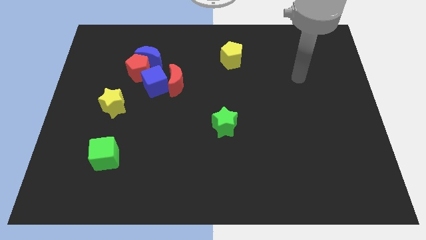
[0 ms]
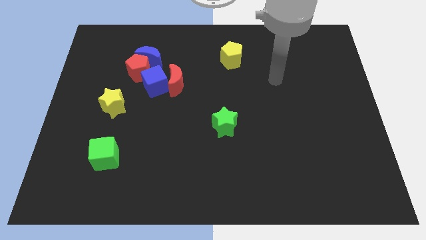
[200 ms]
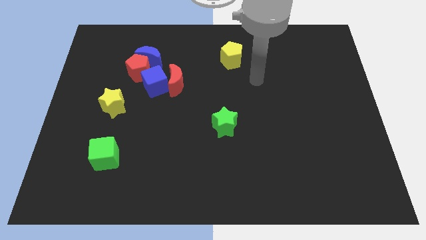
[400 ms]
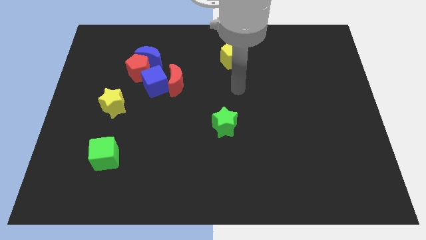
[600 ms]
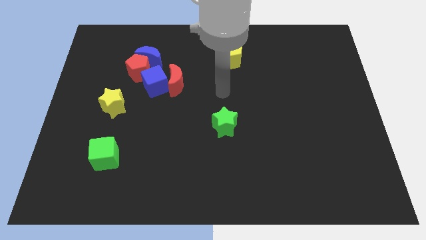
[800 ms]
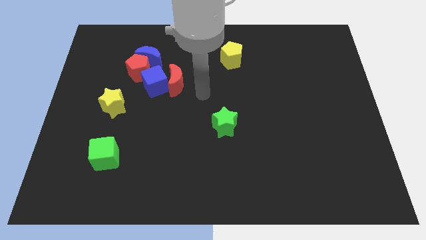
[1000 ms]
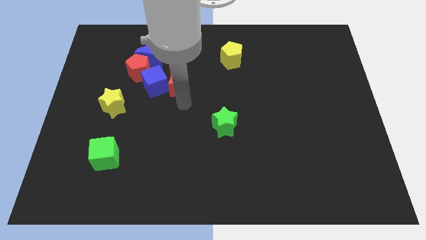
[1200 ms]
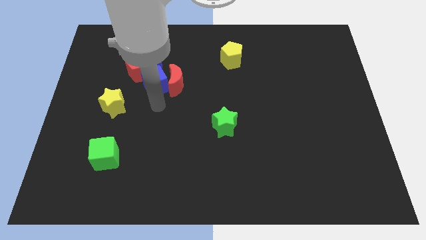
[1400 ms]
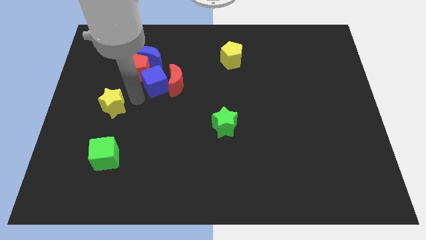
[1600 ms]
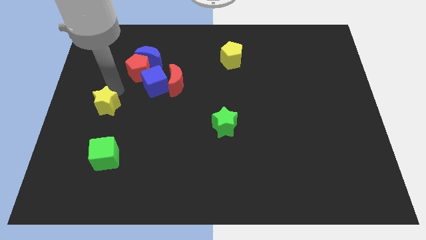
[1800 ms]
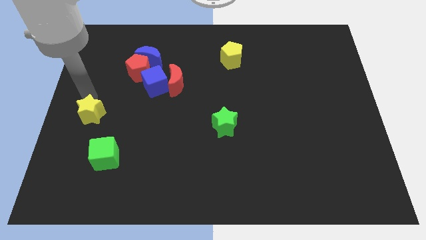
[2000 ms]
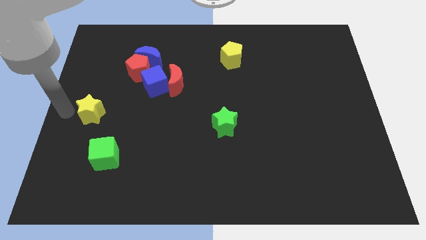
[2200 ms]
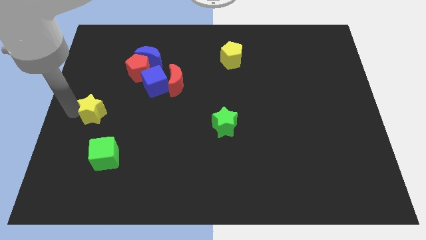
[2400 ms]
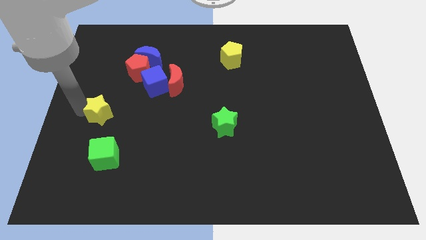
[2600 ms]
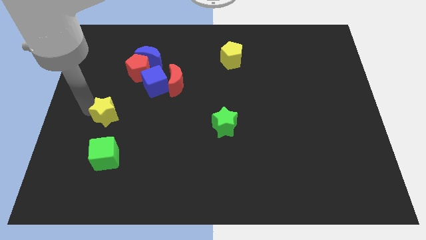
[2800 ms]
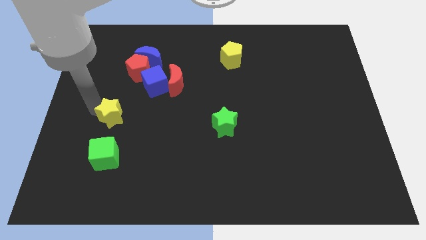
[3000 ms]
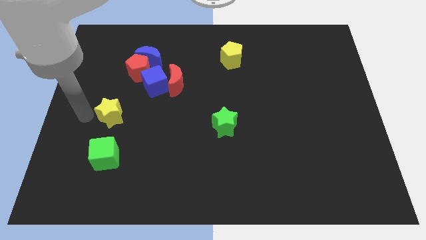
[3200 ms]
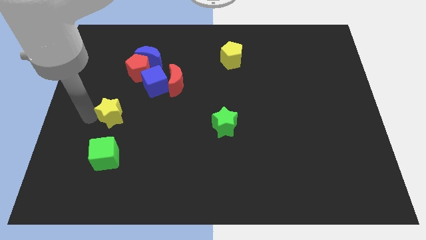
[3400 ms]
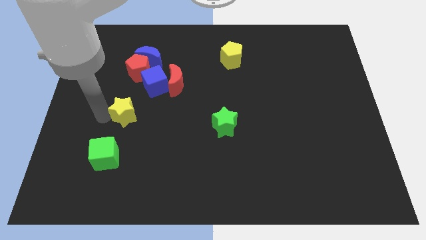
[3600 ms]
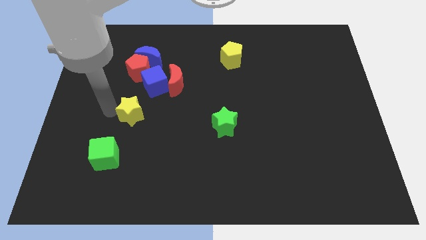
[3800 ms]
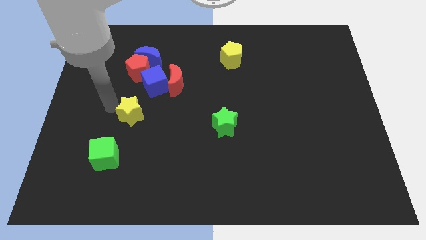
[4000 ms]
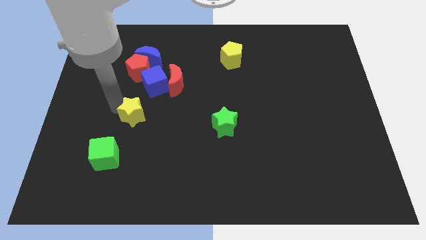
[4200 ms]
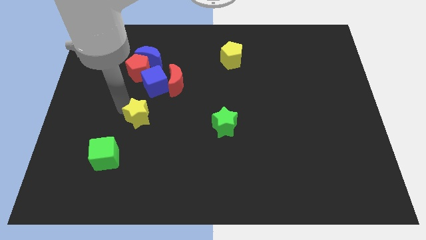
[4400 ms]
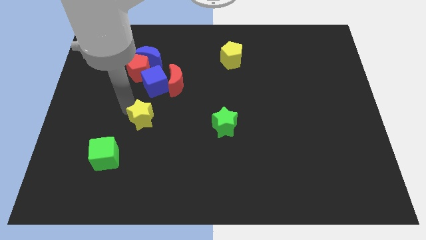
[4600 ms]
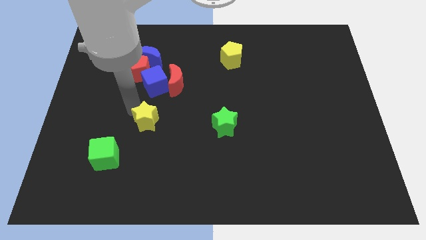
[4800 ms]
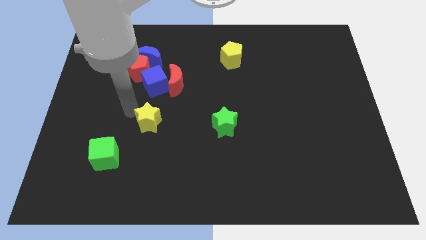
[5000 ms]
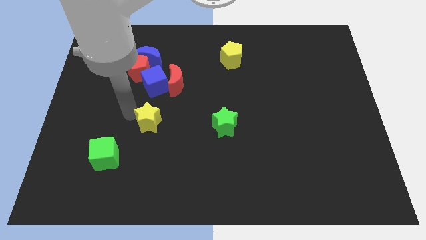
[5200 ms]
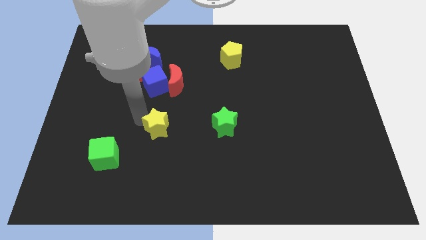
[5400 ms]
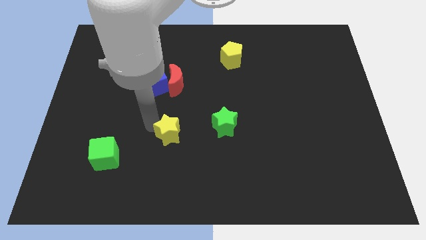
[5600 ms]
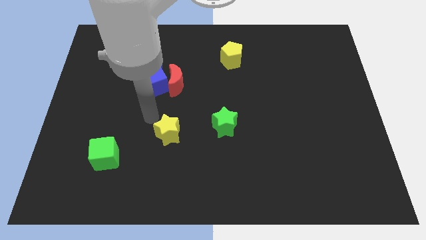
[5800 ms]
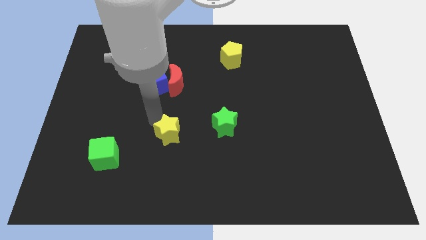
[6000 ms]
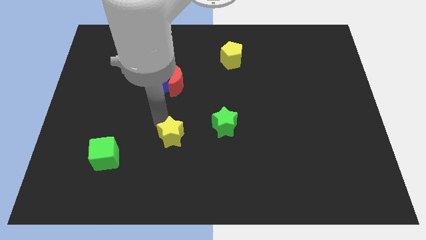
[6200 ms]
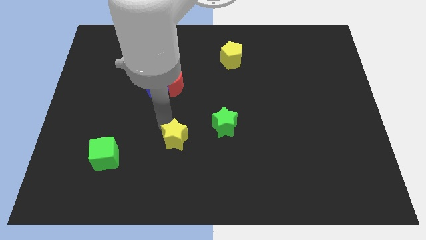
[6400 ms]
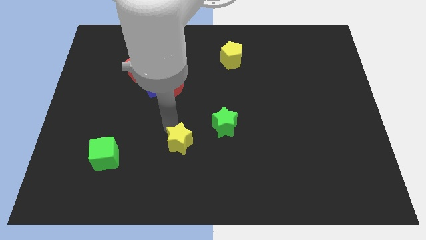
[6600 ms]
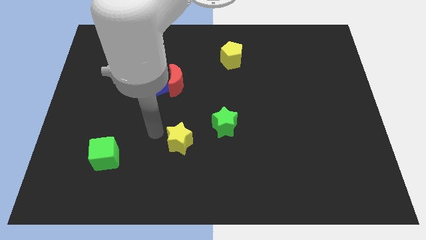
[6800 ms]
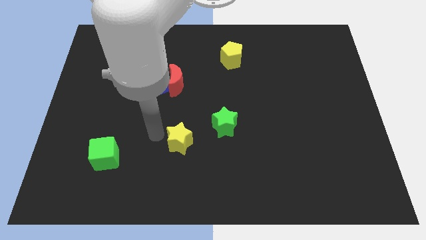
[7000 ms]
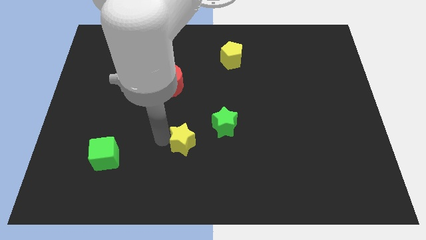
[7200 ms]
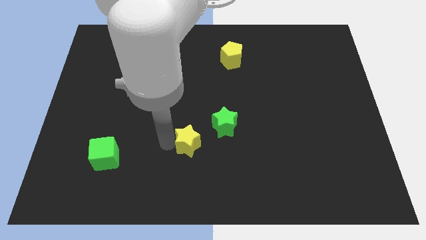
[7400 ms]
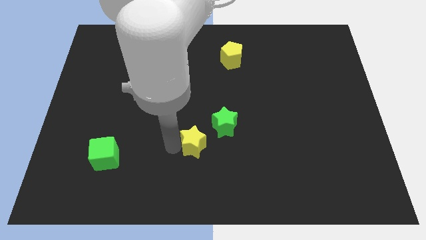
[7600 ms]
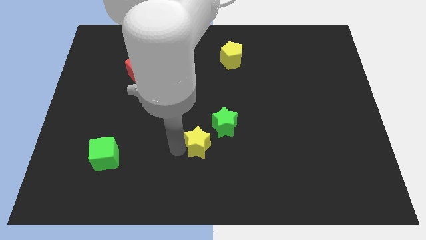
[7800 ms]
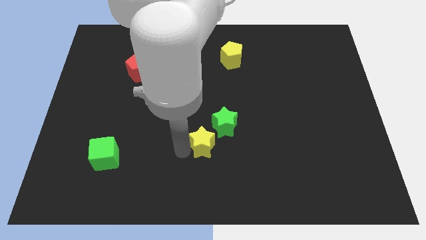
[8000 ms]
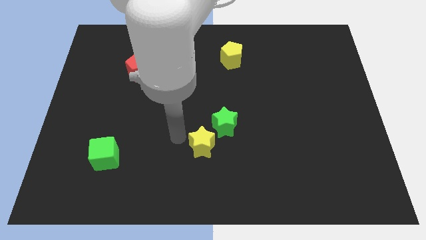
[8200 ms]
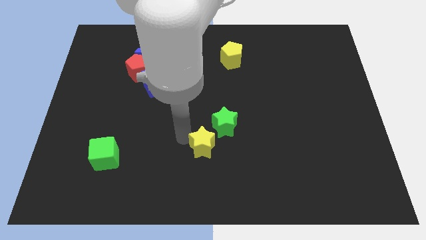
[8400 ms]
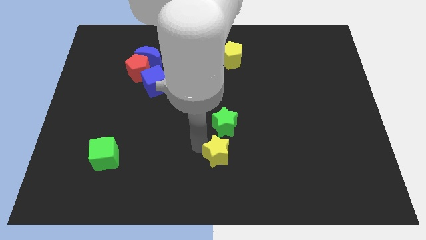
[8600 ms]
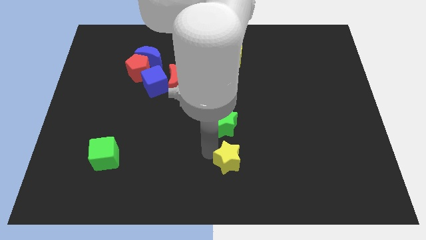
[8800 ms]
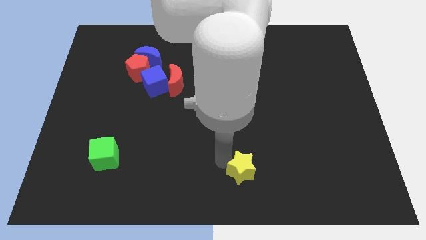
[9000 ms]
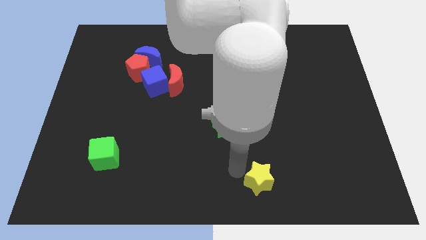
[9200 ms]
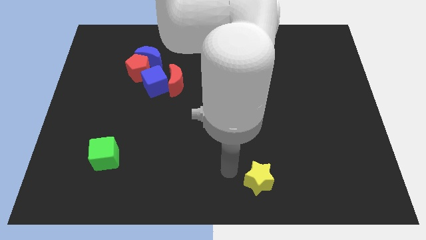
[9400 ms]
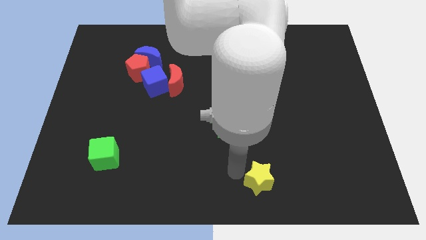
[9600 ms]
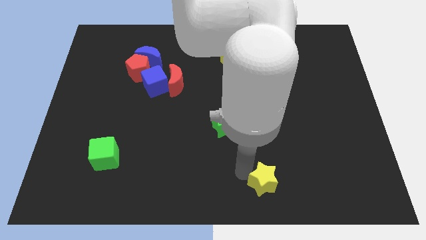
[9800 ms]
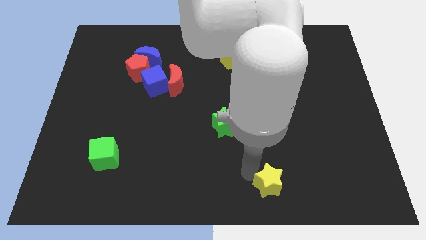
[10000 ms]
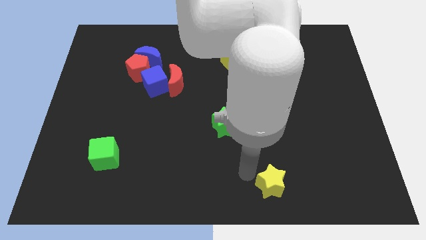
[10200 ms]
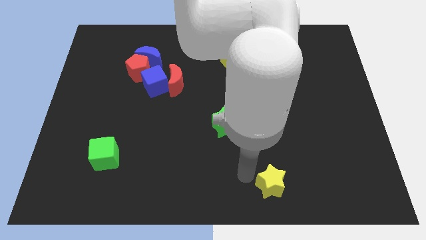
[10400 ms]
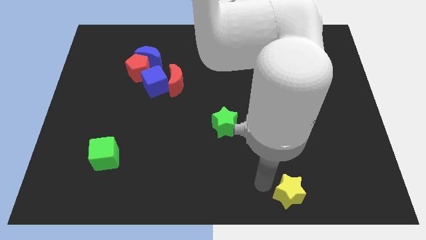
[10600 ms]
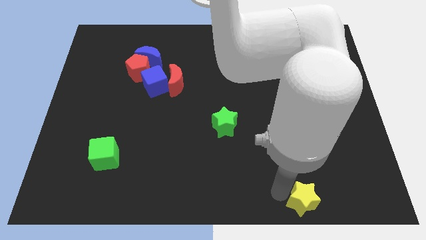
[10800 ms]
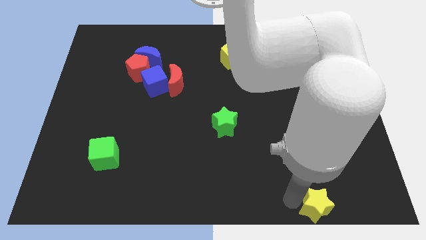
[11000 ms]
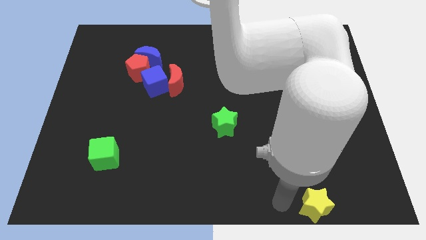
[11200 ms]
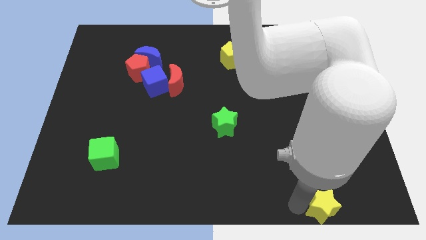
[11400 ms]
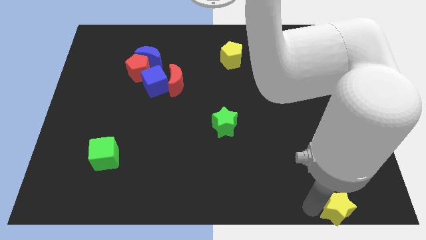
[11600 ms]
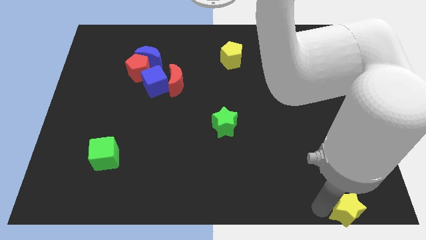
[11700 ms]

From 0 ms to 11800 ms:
push the yellow star to the bottom right

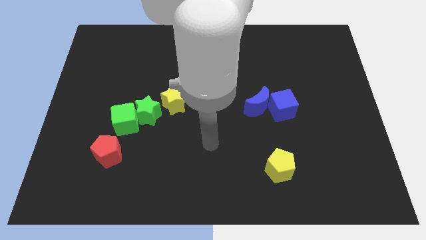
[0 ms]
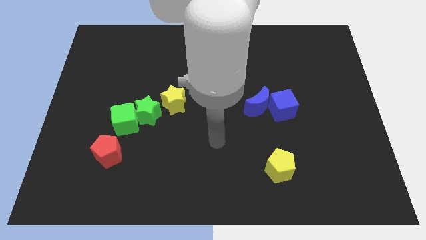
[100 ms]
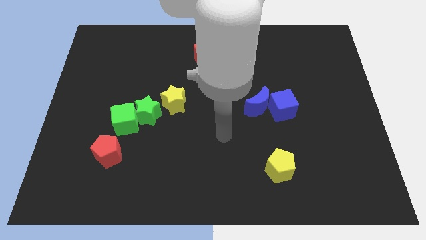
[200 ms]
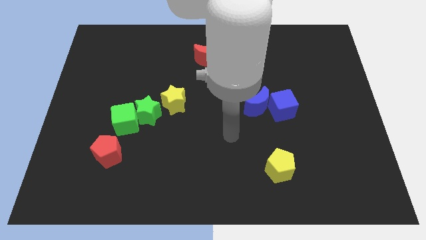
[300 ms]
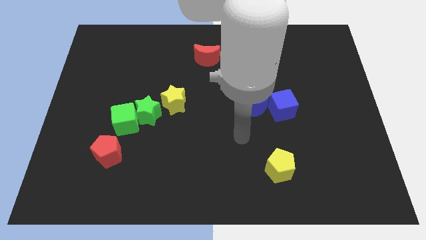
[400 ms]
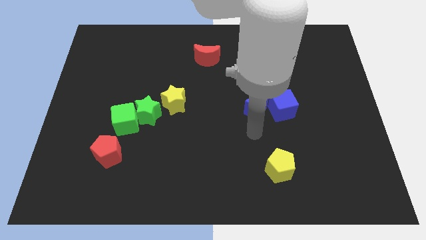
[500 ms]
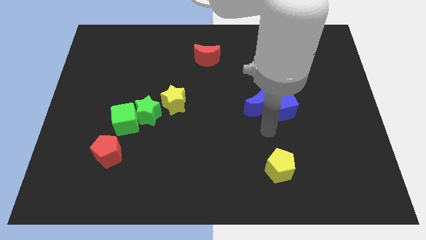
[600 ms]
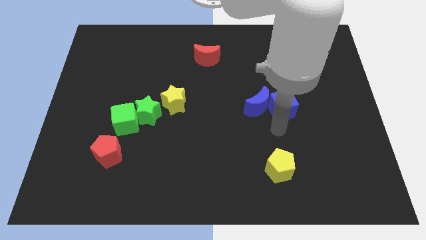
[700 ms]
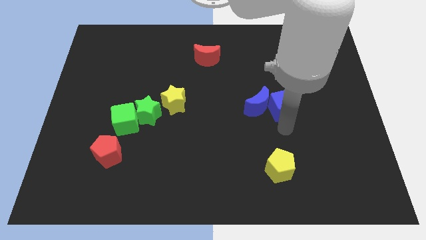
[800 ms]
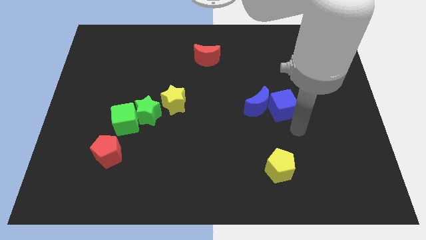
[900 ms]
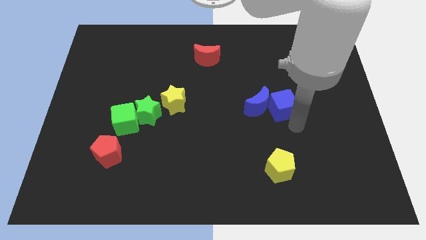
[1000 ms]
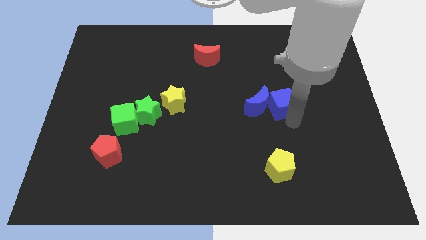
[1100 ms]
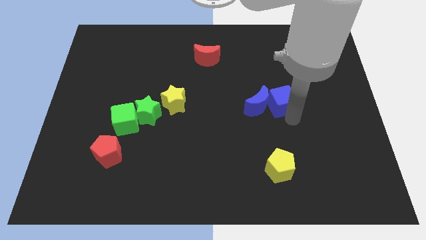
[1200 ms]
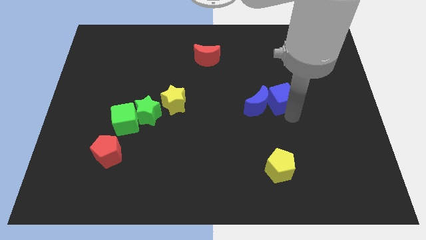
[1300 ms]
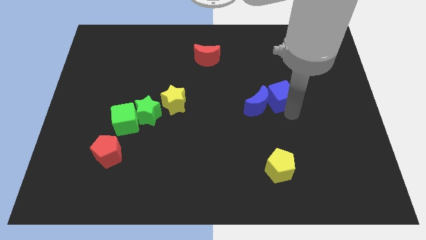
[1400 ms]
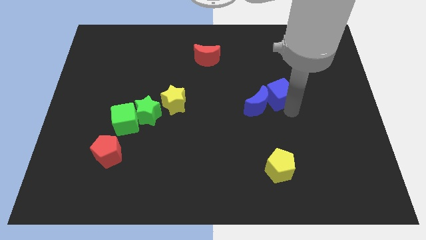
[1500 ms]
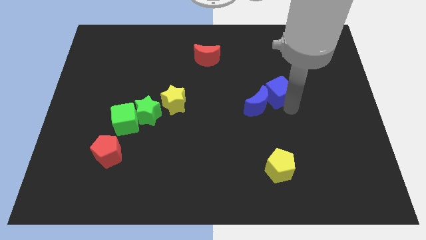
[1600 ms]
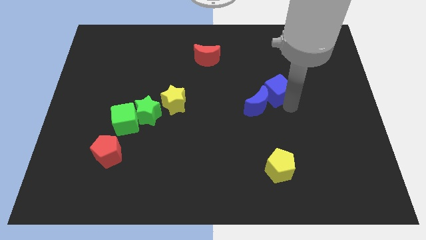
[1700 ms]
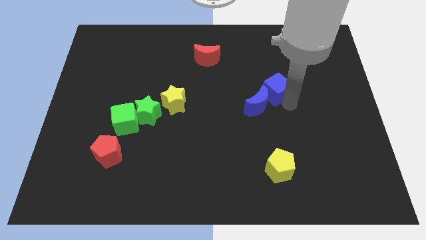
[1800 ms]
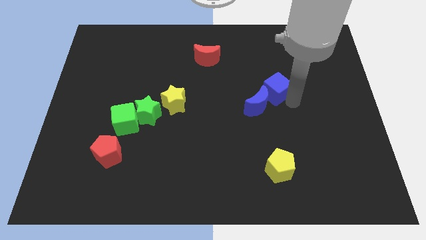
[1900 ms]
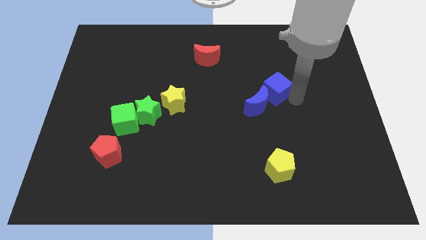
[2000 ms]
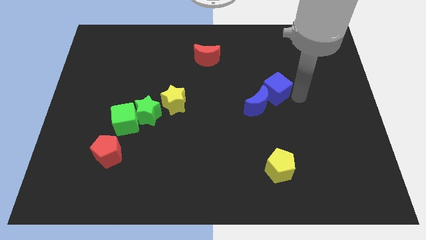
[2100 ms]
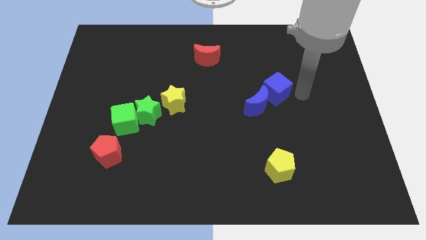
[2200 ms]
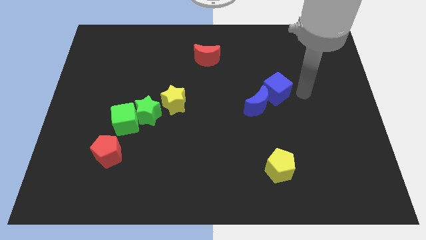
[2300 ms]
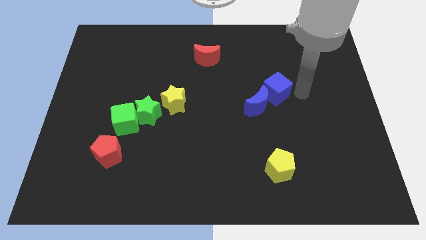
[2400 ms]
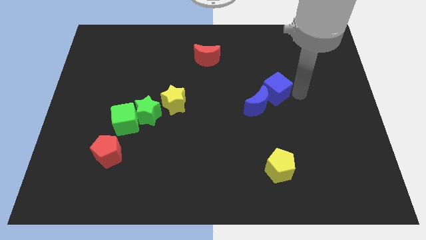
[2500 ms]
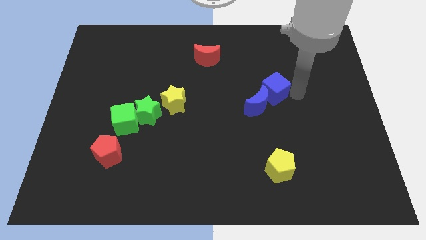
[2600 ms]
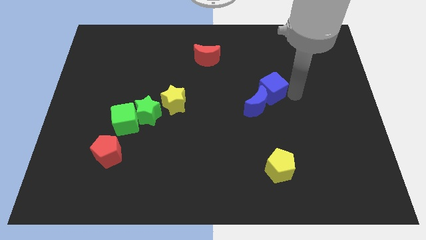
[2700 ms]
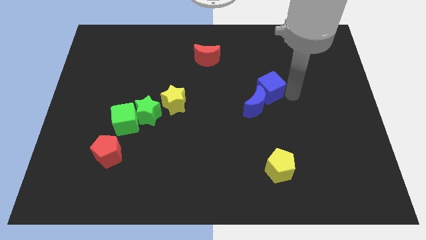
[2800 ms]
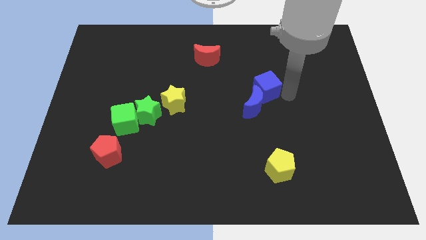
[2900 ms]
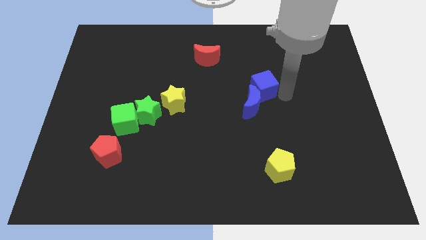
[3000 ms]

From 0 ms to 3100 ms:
put the blue cube to the center of the board
